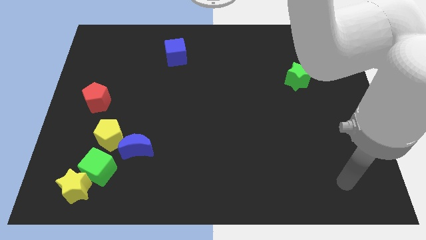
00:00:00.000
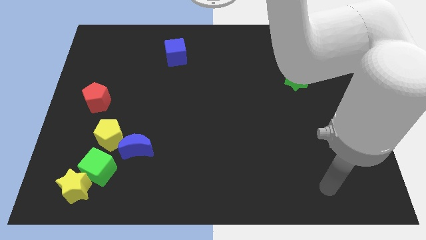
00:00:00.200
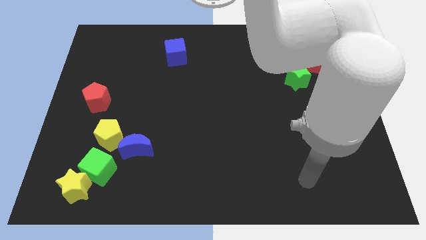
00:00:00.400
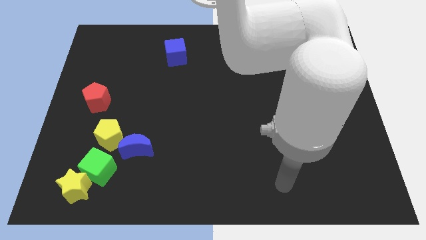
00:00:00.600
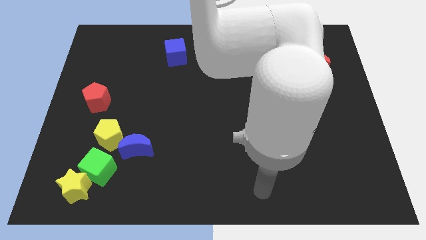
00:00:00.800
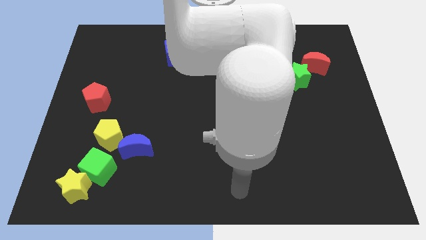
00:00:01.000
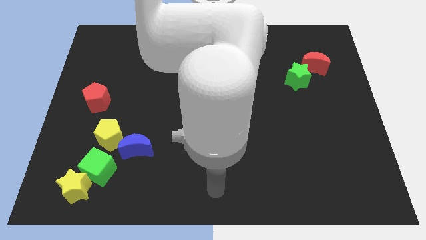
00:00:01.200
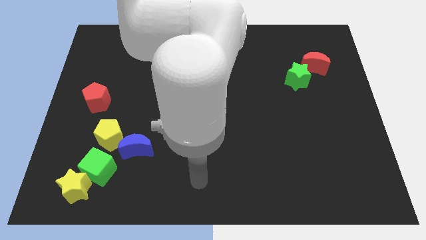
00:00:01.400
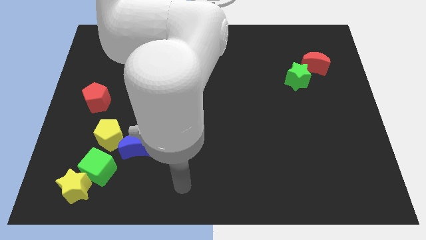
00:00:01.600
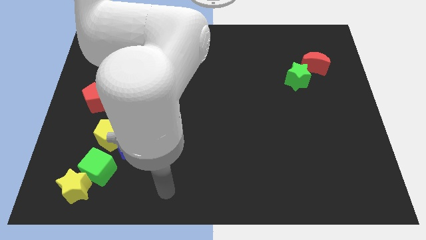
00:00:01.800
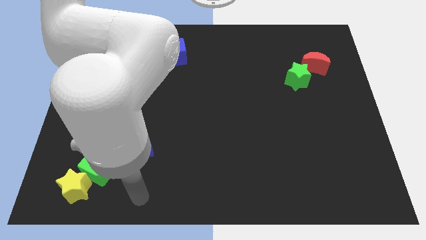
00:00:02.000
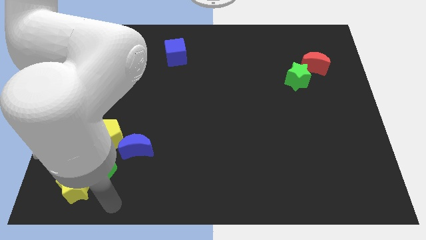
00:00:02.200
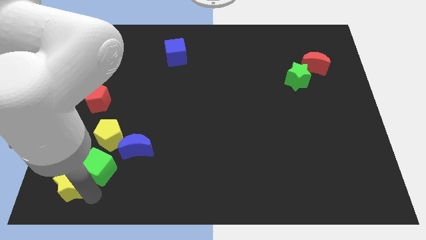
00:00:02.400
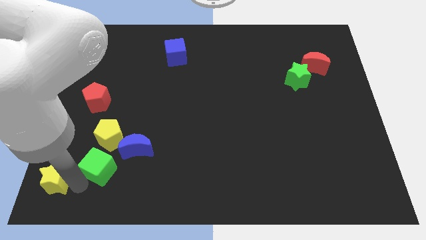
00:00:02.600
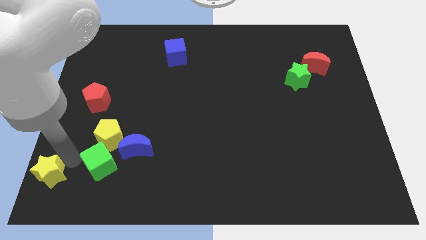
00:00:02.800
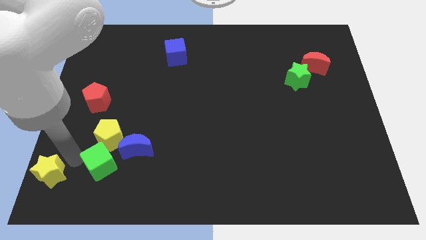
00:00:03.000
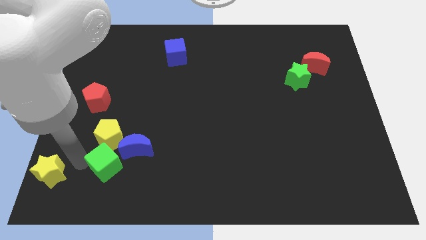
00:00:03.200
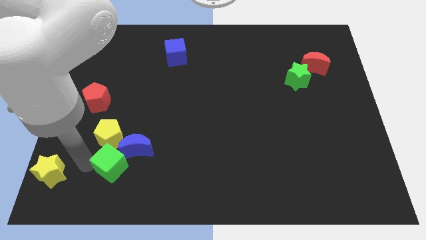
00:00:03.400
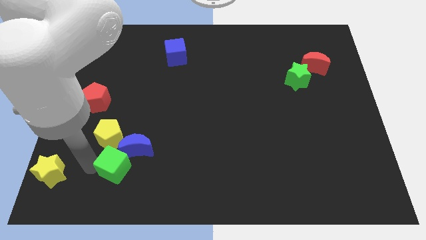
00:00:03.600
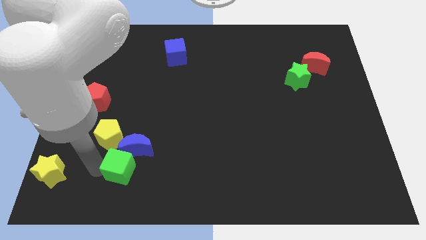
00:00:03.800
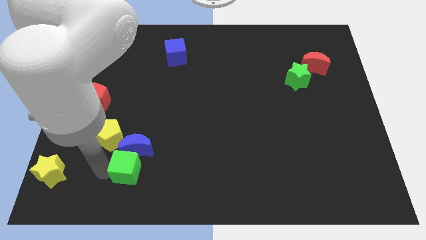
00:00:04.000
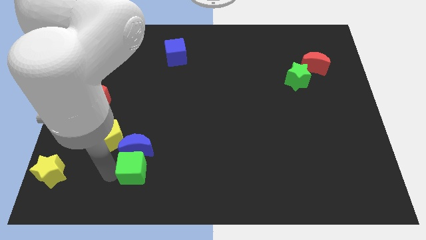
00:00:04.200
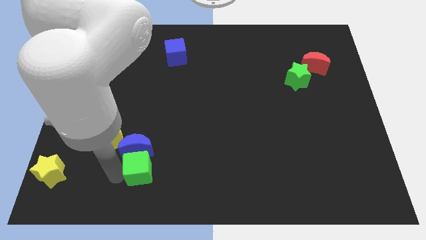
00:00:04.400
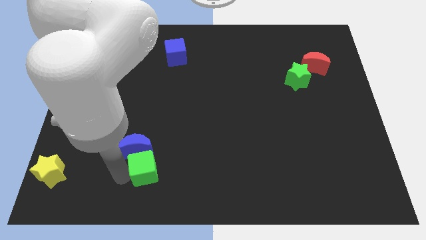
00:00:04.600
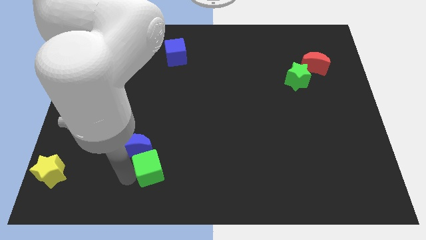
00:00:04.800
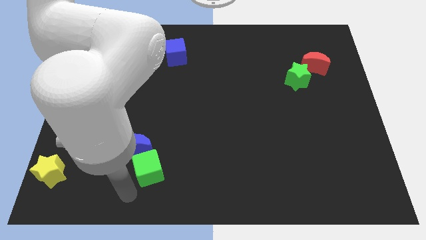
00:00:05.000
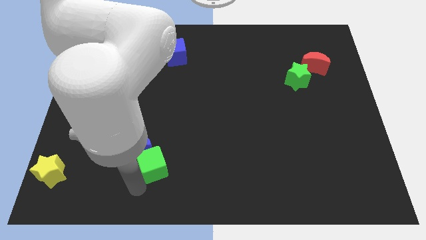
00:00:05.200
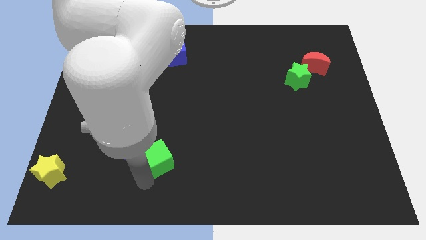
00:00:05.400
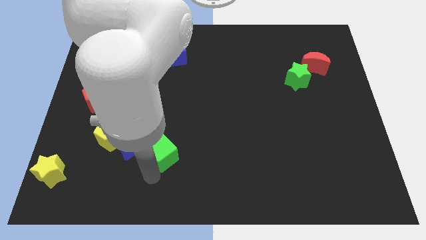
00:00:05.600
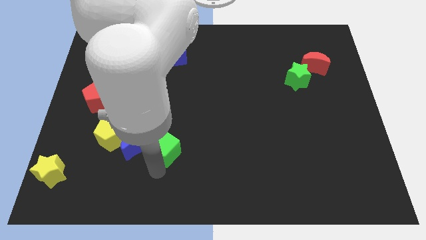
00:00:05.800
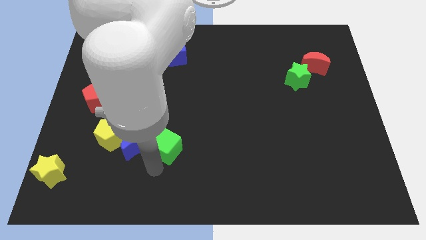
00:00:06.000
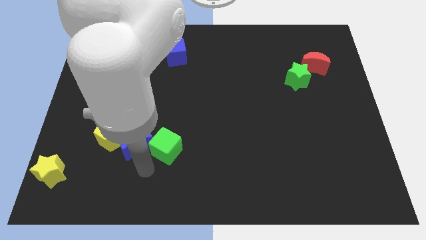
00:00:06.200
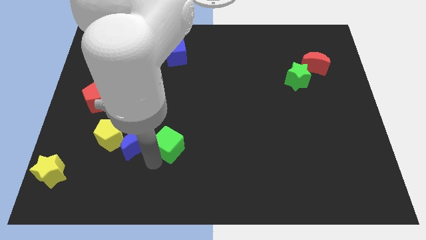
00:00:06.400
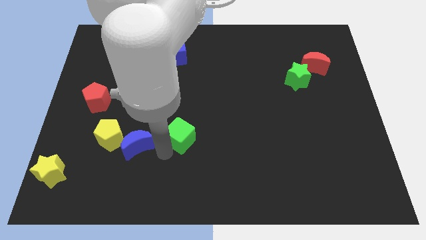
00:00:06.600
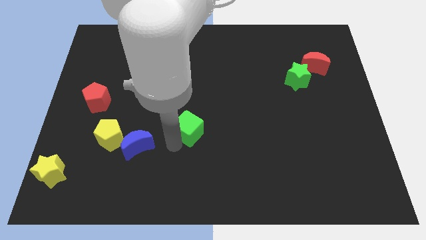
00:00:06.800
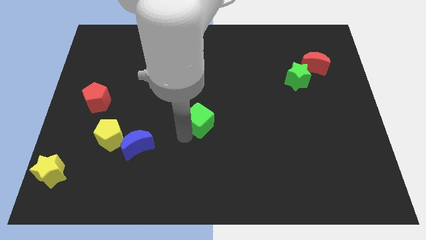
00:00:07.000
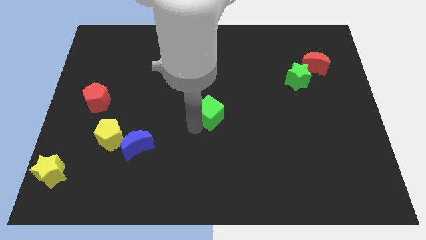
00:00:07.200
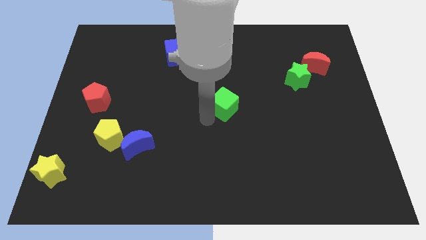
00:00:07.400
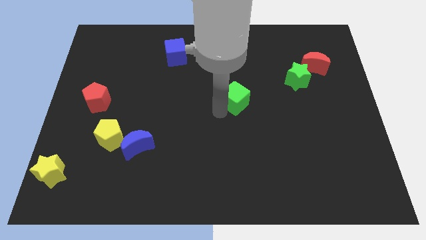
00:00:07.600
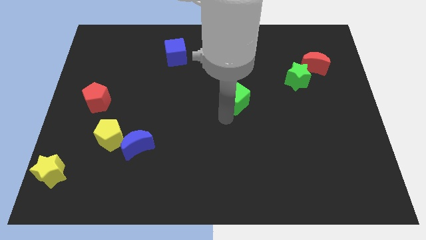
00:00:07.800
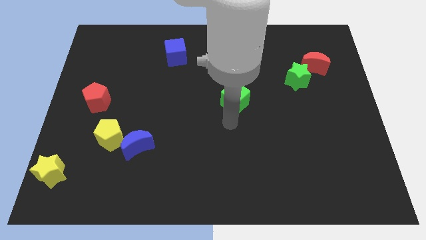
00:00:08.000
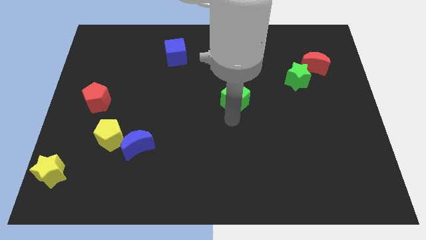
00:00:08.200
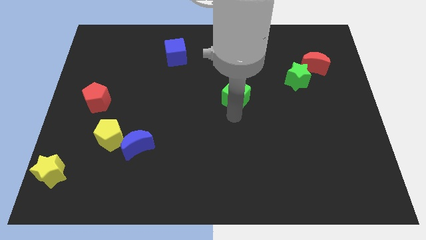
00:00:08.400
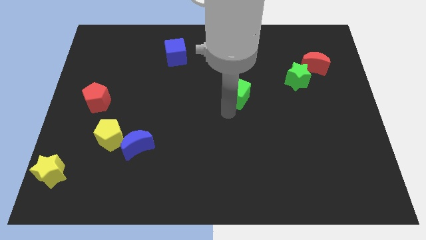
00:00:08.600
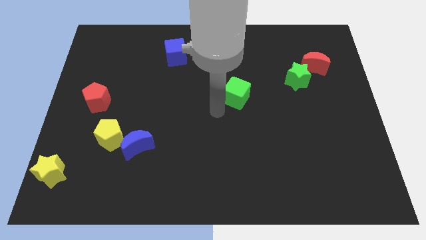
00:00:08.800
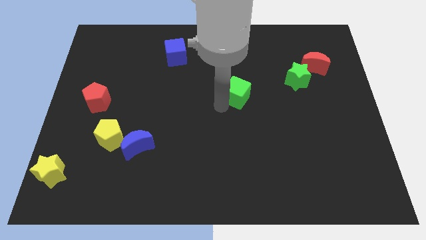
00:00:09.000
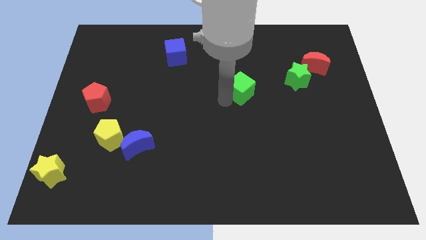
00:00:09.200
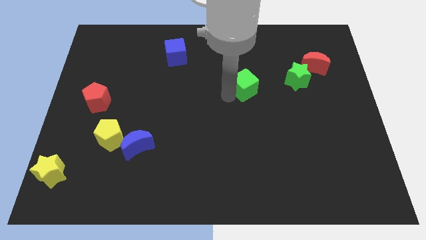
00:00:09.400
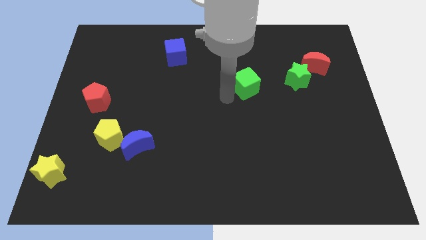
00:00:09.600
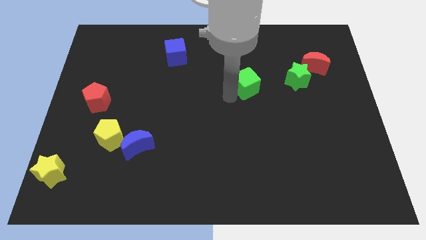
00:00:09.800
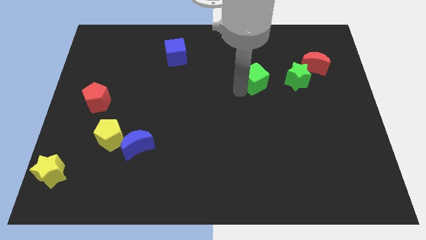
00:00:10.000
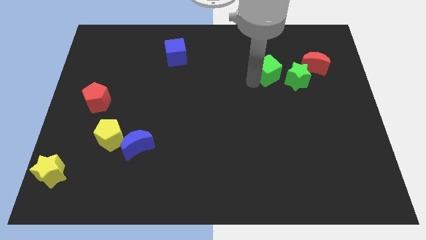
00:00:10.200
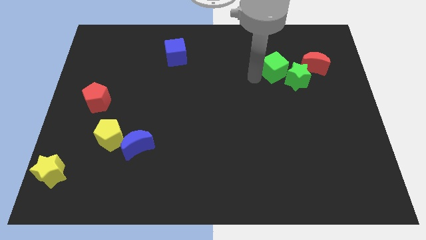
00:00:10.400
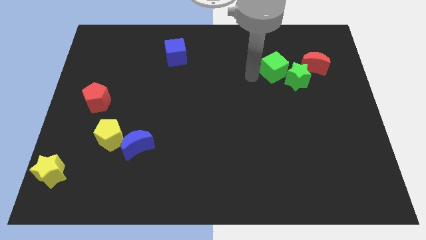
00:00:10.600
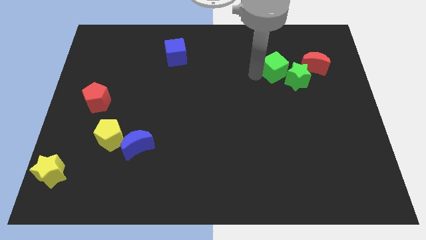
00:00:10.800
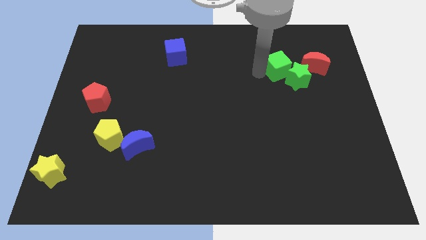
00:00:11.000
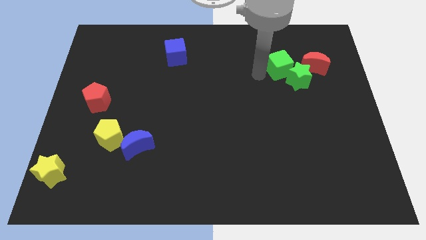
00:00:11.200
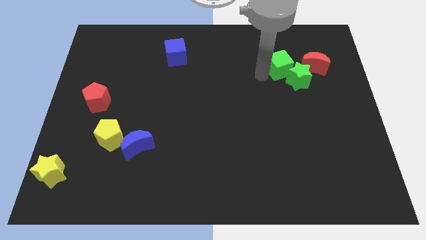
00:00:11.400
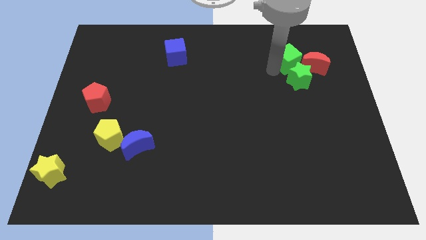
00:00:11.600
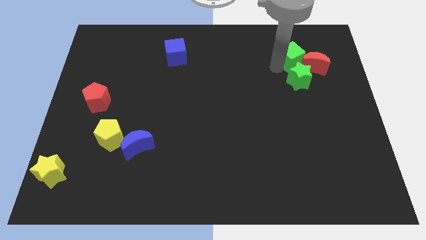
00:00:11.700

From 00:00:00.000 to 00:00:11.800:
push the green cube to the red moon
